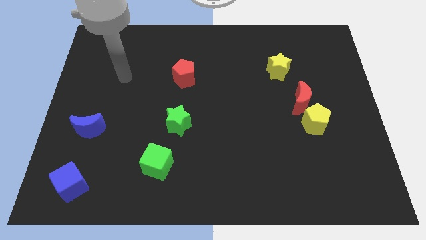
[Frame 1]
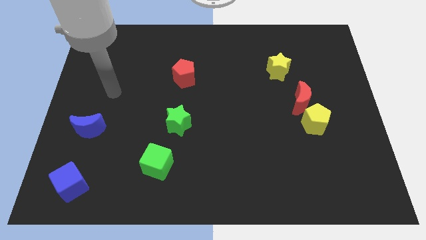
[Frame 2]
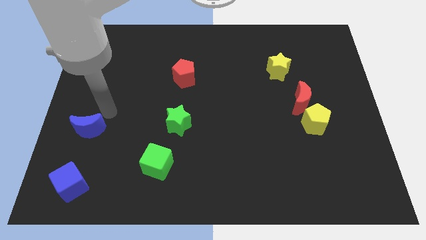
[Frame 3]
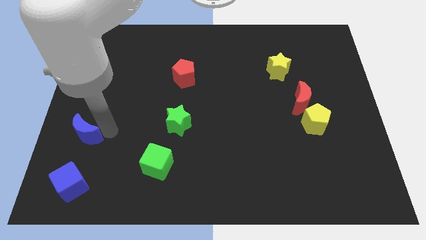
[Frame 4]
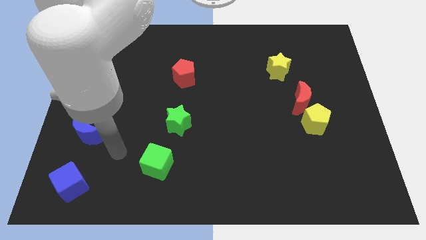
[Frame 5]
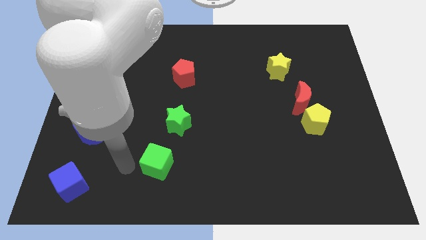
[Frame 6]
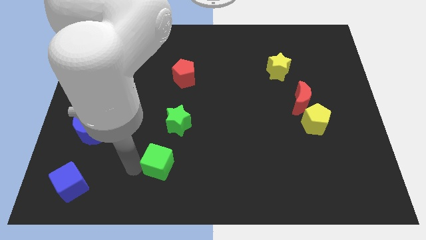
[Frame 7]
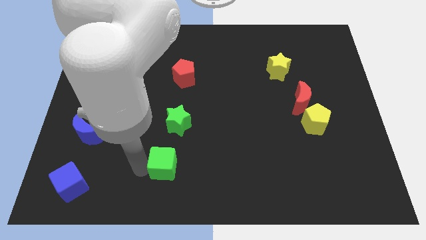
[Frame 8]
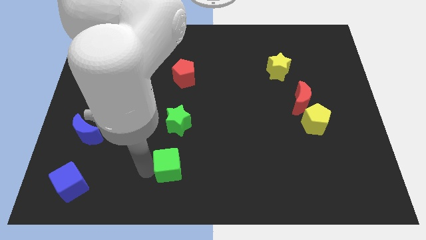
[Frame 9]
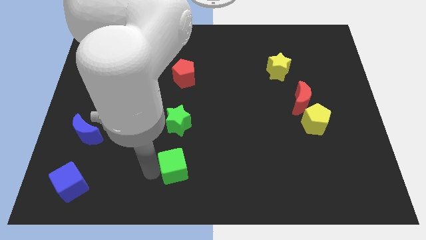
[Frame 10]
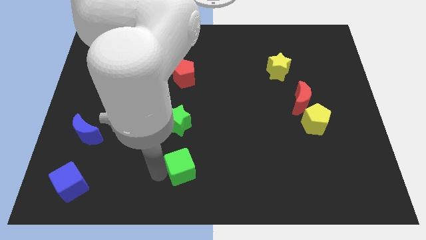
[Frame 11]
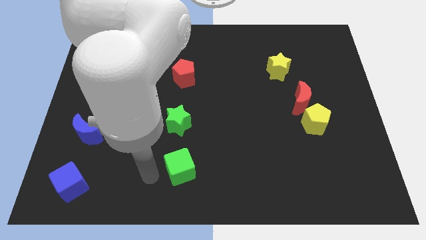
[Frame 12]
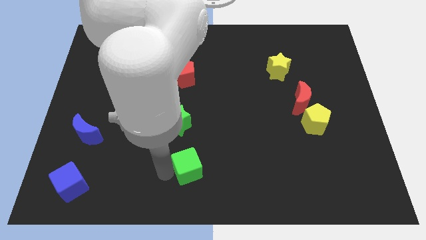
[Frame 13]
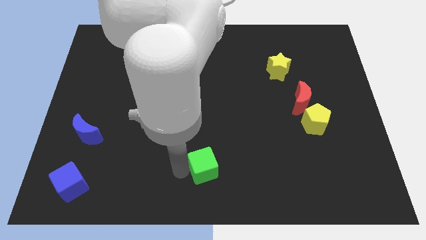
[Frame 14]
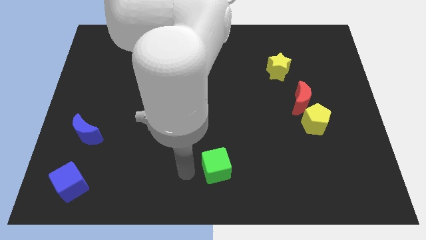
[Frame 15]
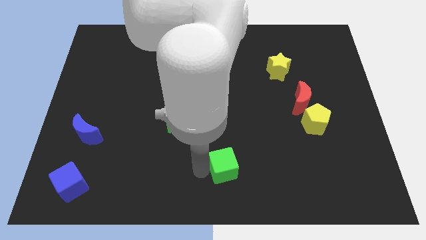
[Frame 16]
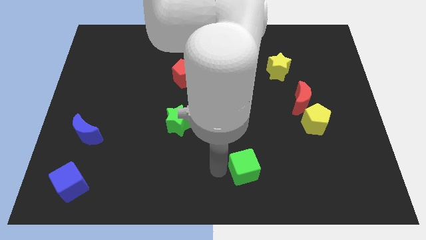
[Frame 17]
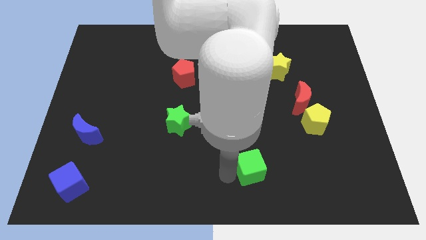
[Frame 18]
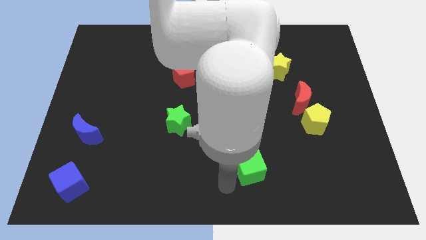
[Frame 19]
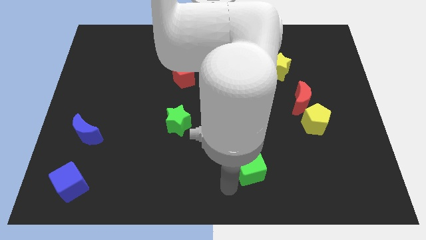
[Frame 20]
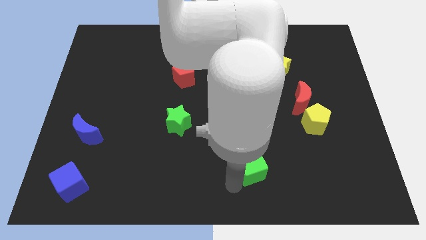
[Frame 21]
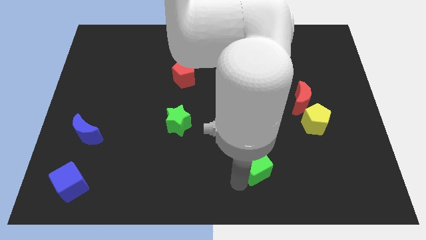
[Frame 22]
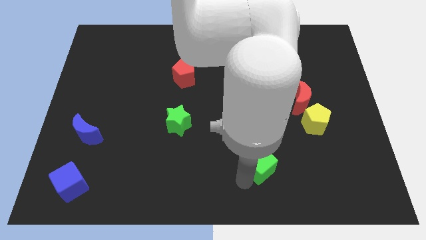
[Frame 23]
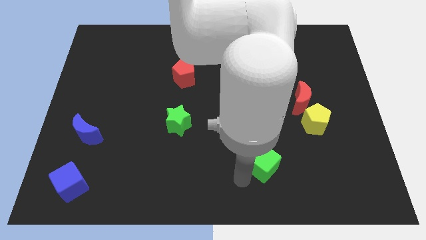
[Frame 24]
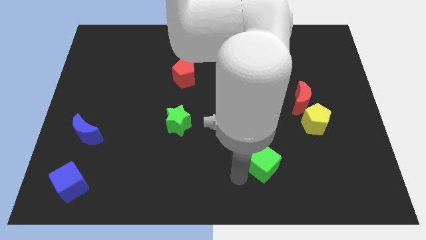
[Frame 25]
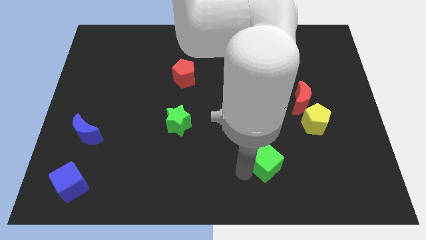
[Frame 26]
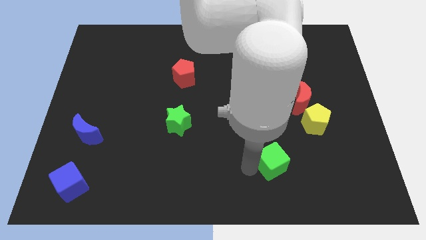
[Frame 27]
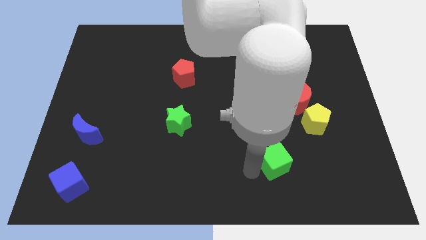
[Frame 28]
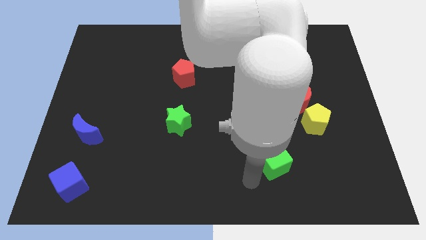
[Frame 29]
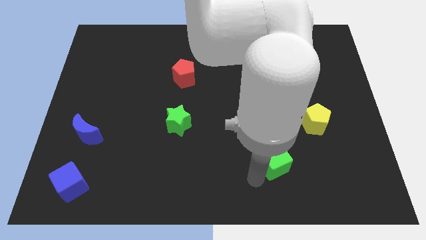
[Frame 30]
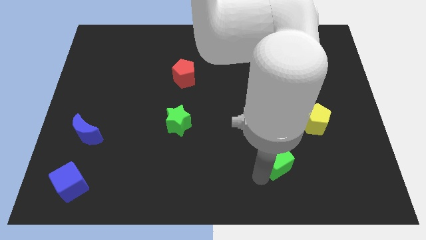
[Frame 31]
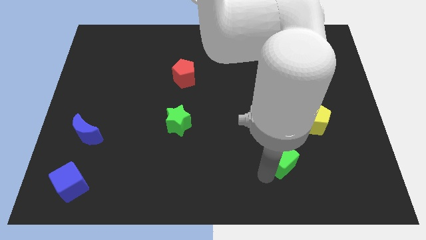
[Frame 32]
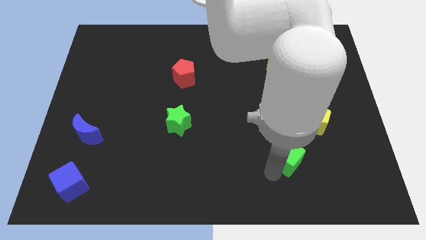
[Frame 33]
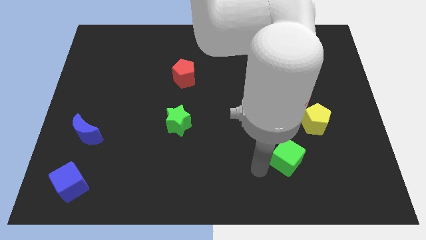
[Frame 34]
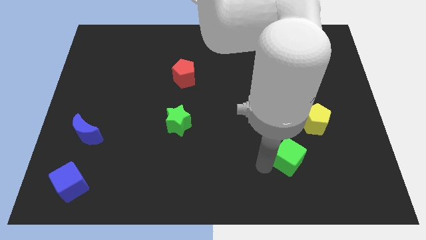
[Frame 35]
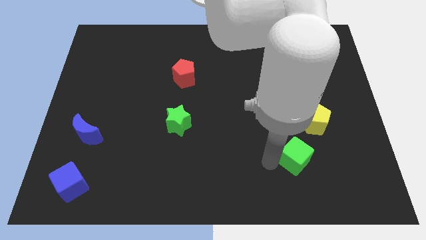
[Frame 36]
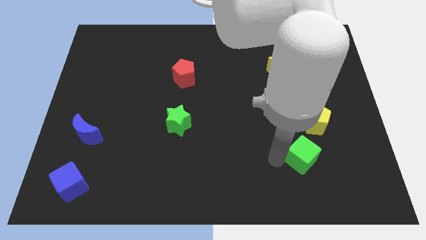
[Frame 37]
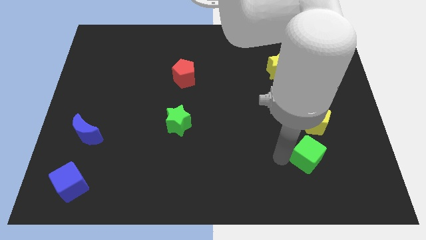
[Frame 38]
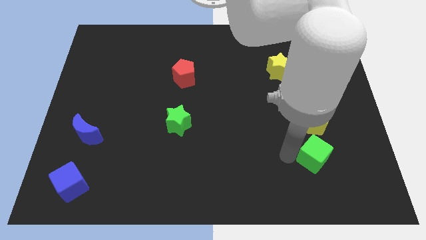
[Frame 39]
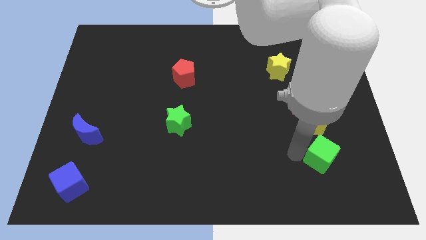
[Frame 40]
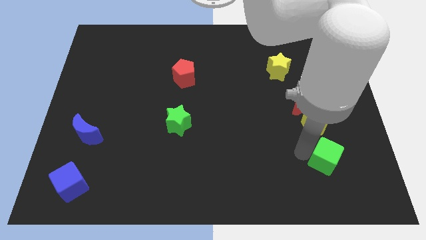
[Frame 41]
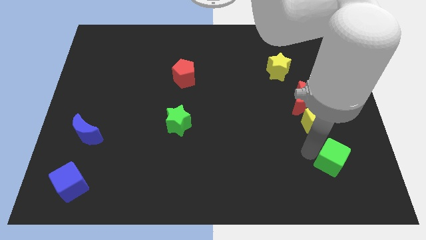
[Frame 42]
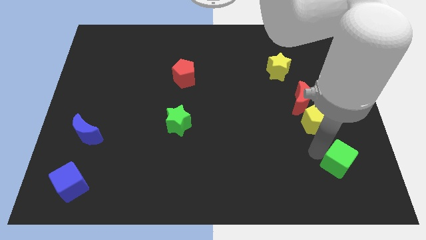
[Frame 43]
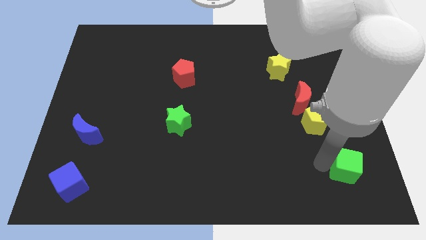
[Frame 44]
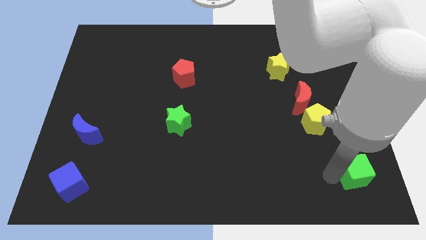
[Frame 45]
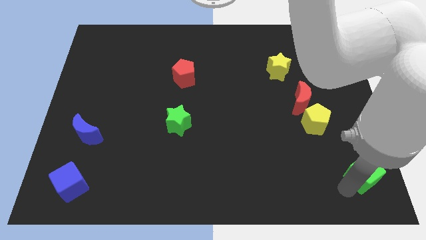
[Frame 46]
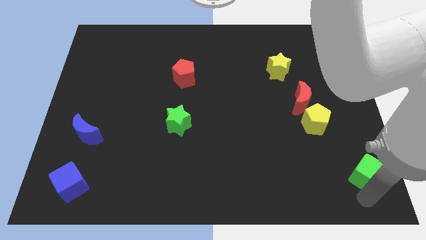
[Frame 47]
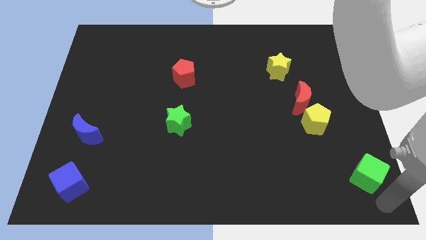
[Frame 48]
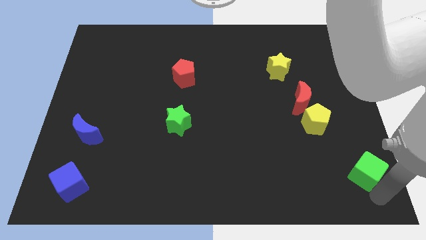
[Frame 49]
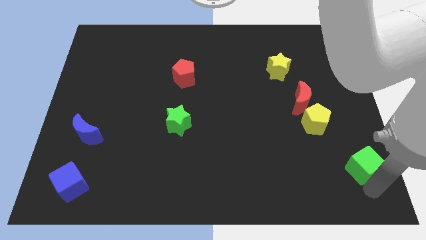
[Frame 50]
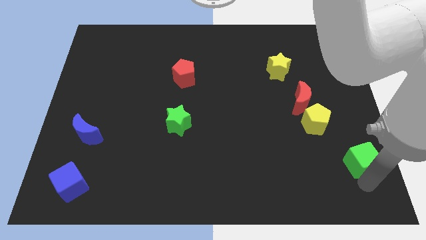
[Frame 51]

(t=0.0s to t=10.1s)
put the green cube diagonally down and to the right of the yellow pentagon

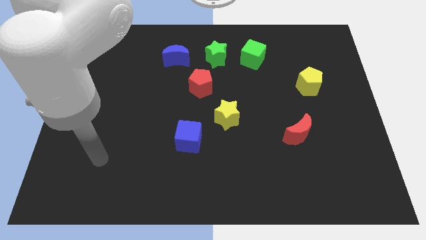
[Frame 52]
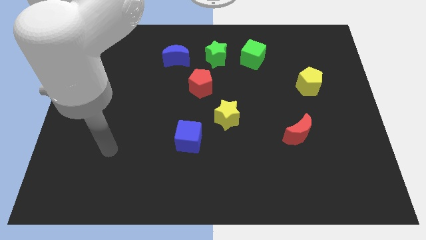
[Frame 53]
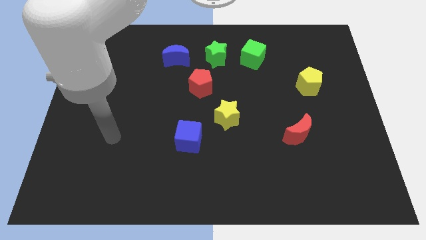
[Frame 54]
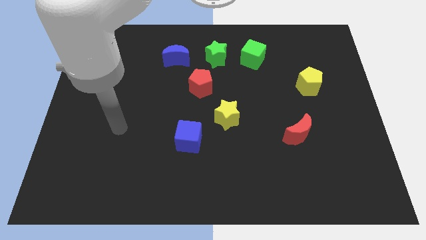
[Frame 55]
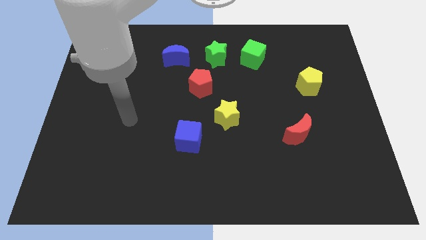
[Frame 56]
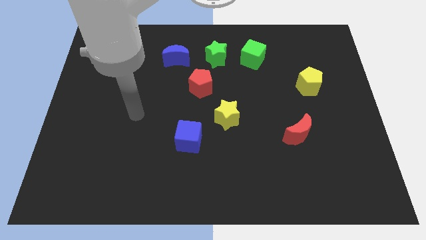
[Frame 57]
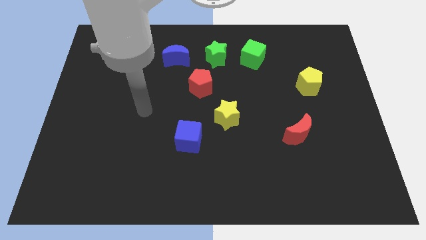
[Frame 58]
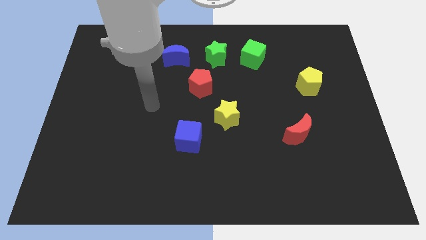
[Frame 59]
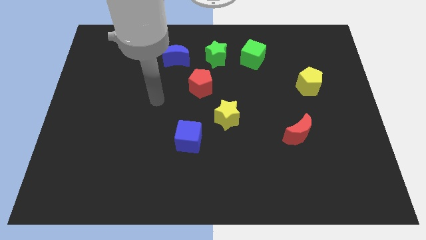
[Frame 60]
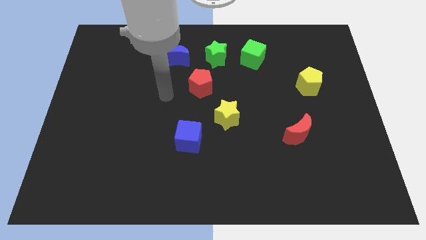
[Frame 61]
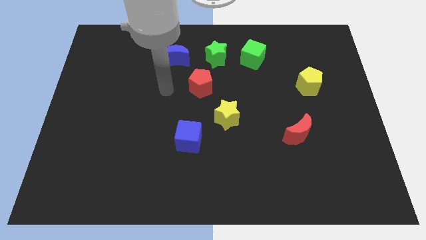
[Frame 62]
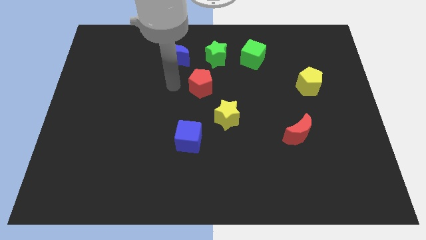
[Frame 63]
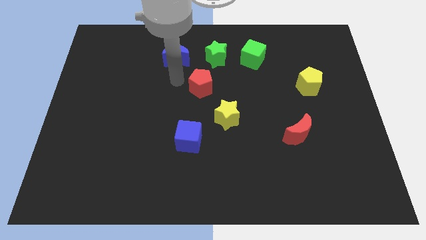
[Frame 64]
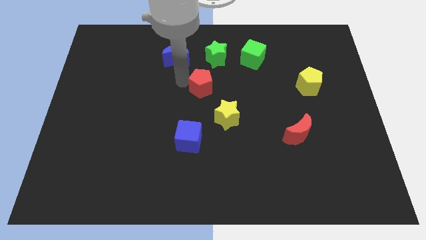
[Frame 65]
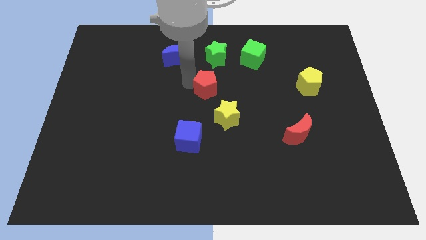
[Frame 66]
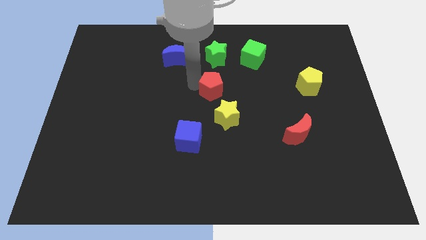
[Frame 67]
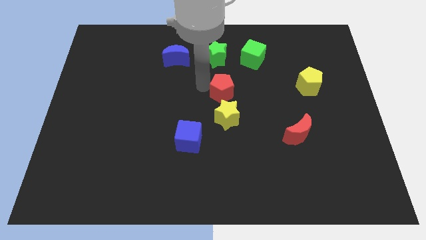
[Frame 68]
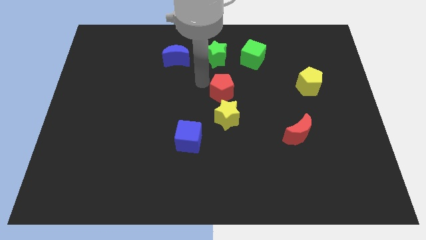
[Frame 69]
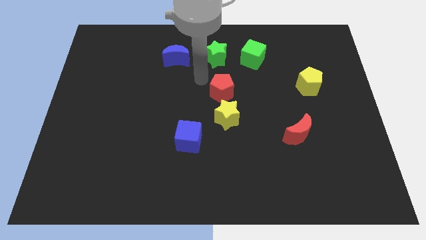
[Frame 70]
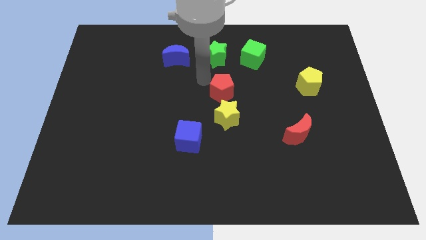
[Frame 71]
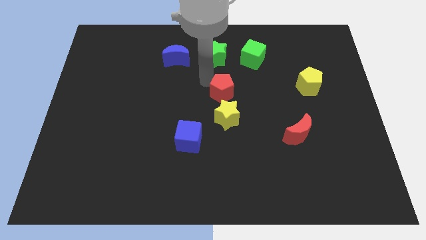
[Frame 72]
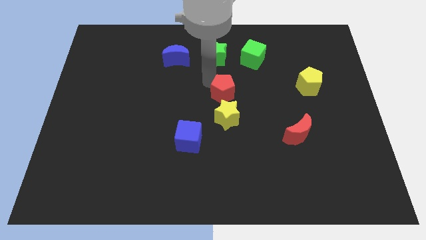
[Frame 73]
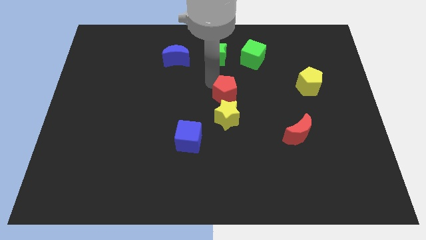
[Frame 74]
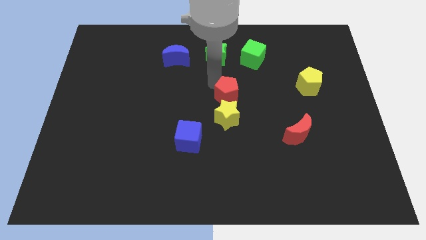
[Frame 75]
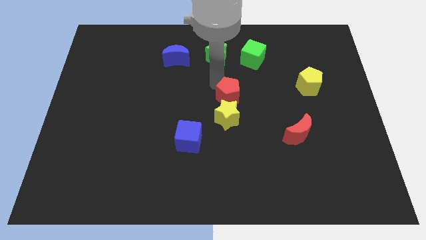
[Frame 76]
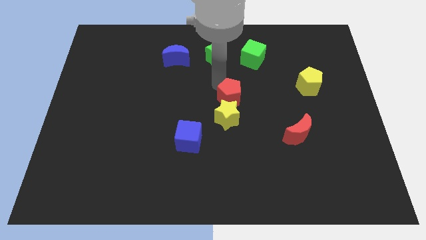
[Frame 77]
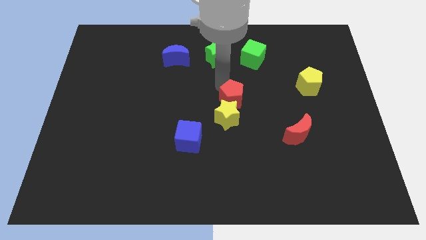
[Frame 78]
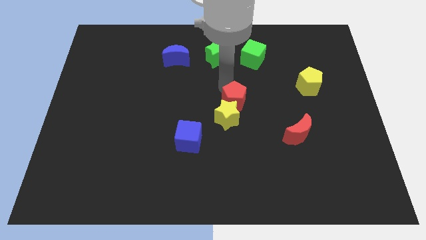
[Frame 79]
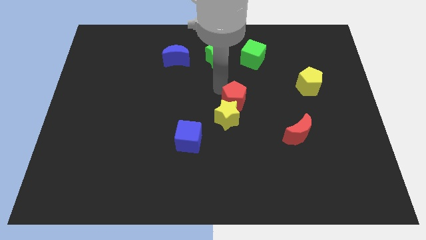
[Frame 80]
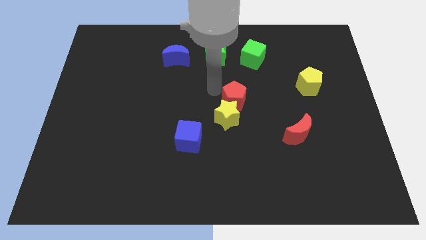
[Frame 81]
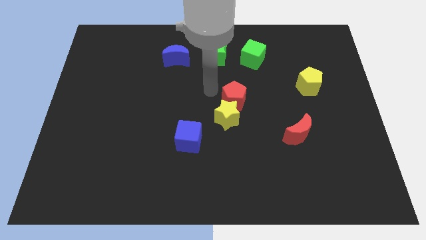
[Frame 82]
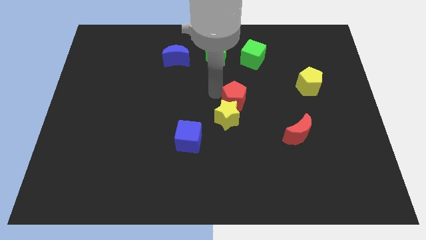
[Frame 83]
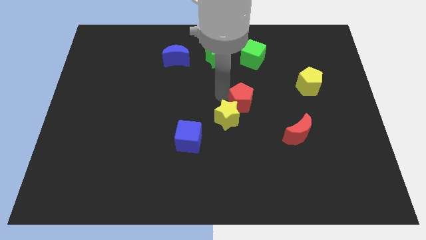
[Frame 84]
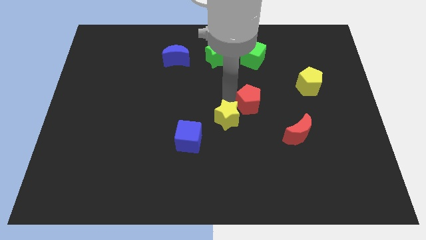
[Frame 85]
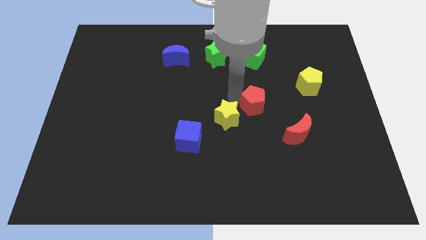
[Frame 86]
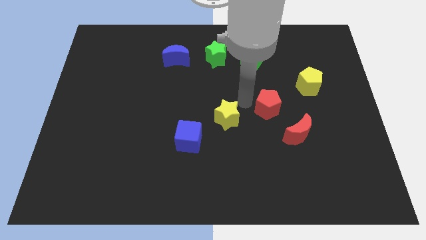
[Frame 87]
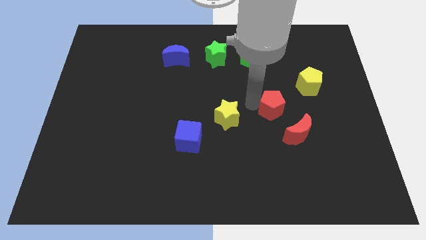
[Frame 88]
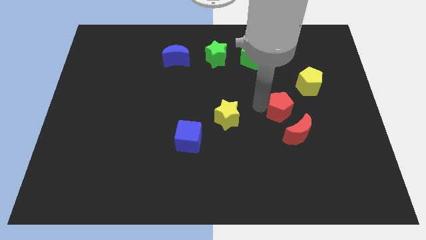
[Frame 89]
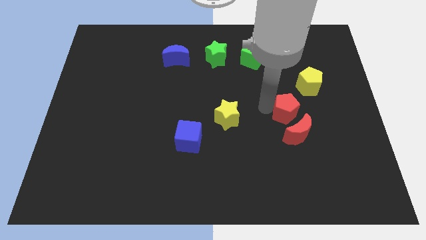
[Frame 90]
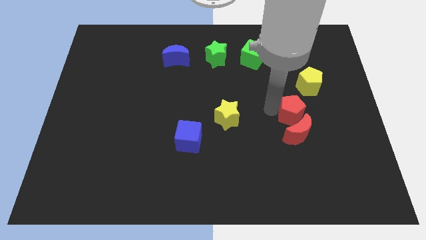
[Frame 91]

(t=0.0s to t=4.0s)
push the red pentagon to the top right of the red moon
